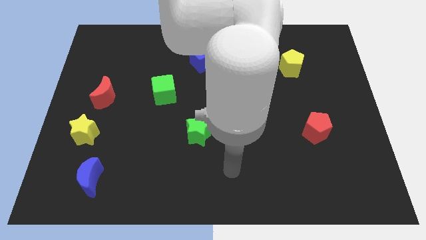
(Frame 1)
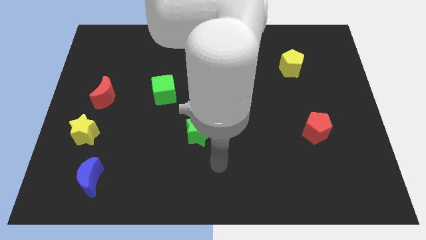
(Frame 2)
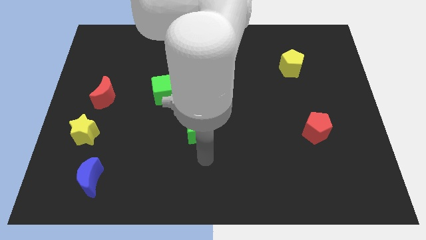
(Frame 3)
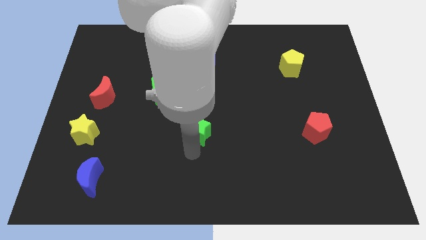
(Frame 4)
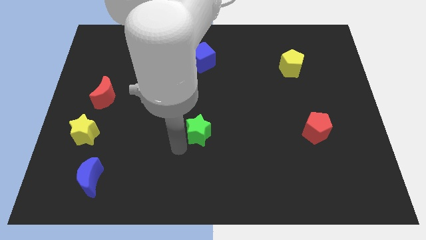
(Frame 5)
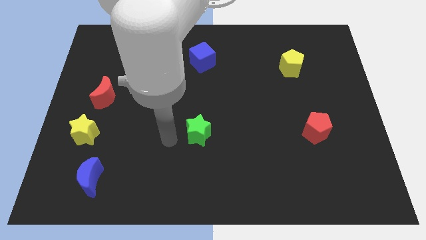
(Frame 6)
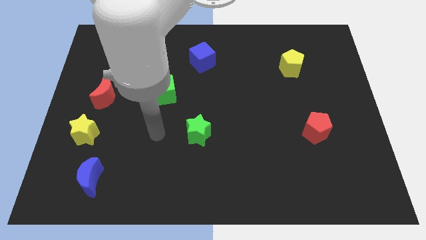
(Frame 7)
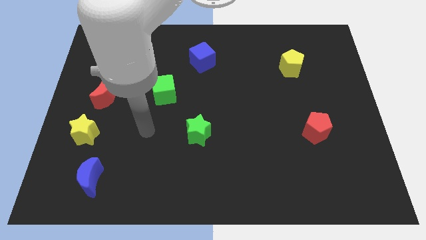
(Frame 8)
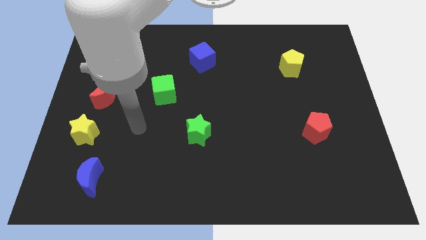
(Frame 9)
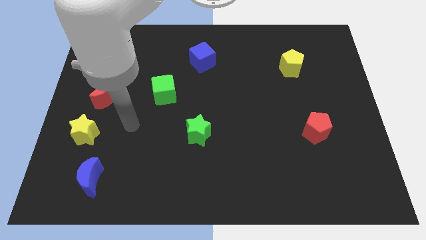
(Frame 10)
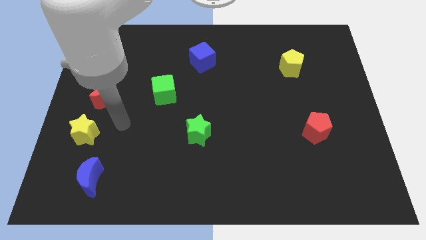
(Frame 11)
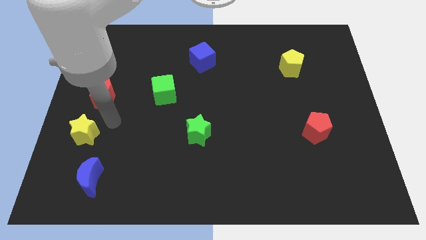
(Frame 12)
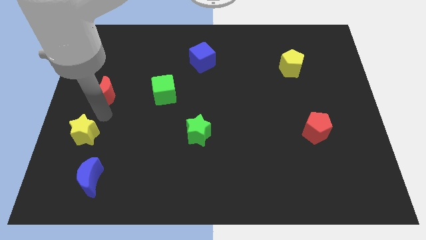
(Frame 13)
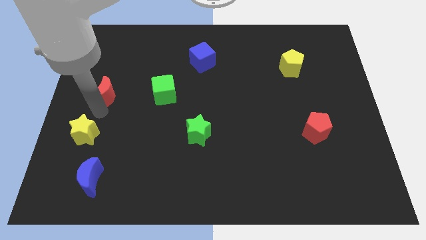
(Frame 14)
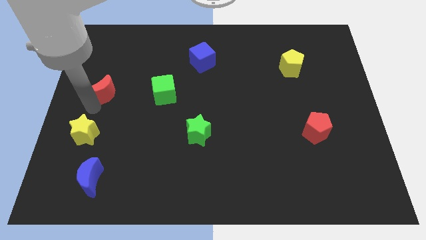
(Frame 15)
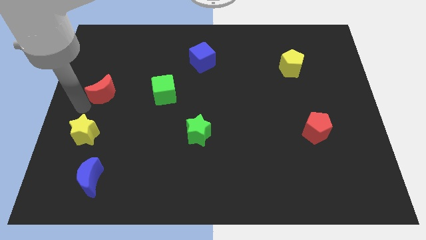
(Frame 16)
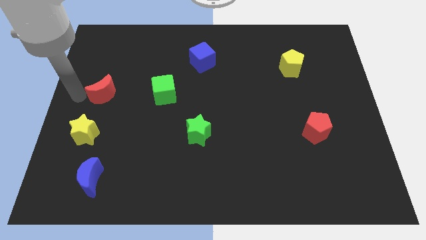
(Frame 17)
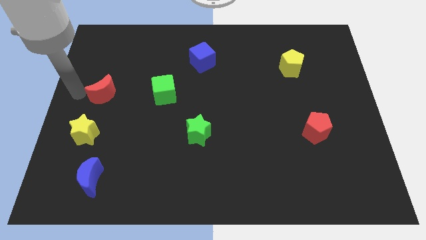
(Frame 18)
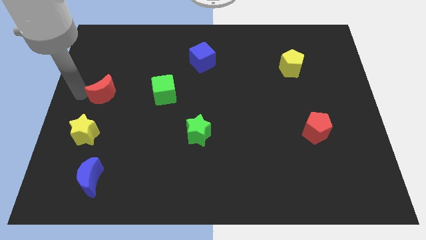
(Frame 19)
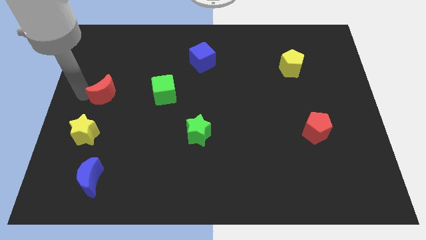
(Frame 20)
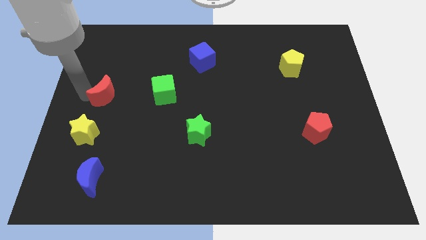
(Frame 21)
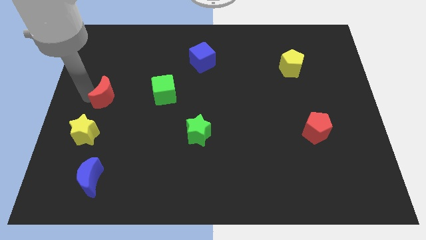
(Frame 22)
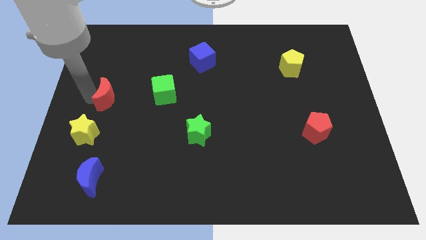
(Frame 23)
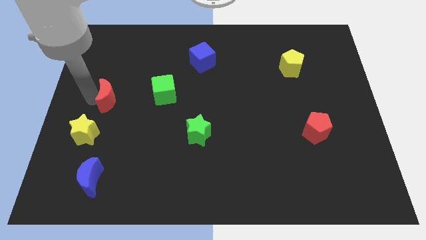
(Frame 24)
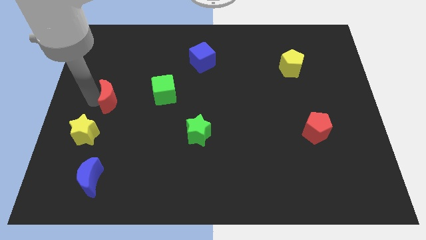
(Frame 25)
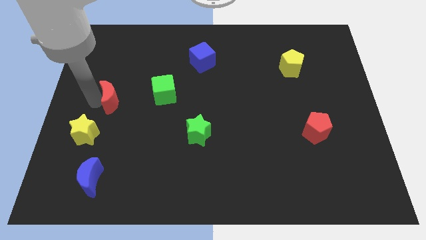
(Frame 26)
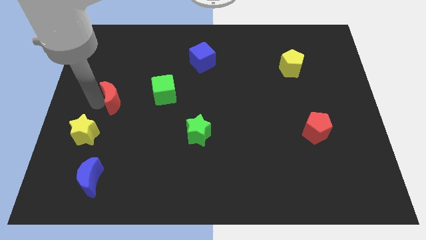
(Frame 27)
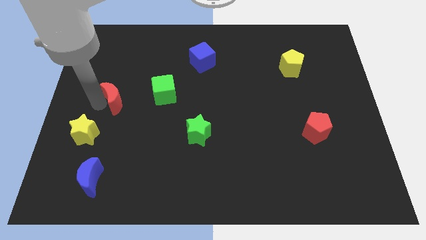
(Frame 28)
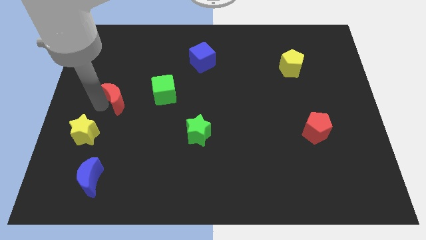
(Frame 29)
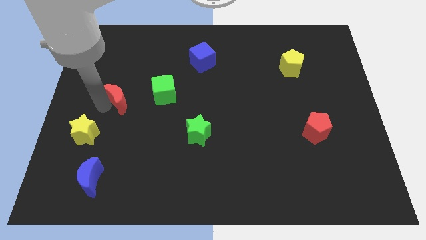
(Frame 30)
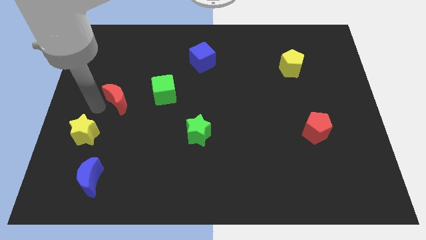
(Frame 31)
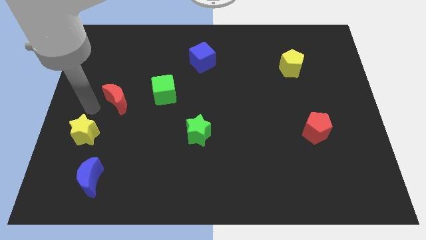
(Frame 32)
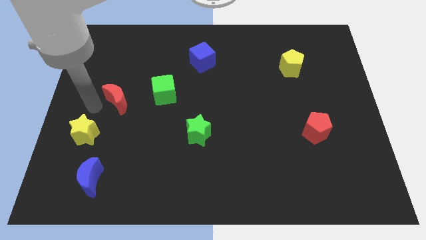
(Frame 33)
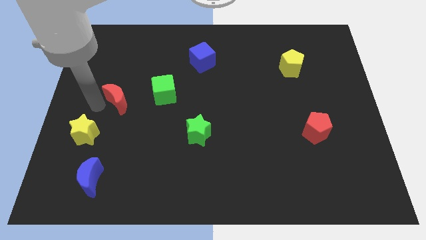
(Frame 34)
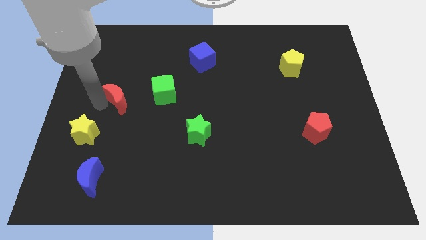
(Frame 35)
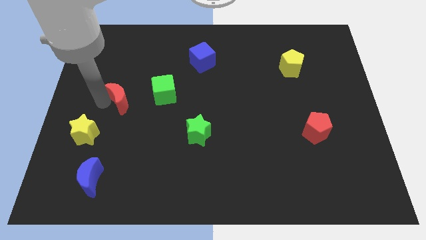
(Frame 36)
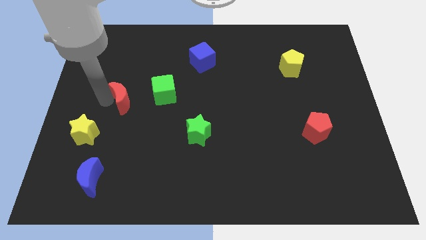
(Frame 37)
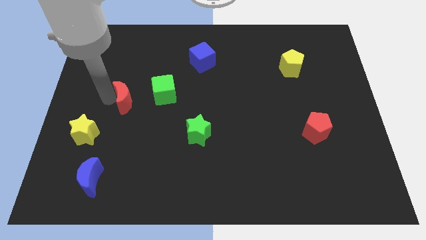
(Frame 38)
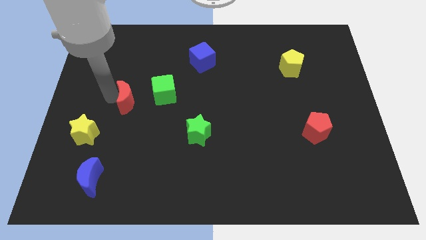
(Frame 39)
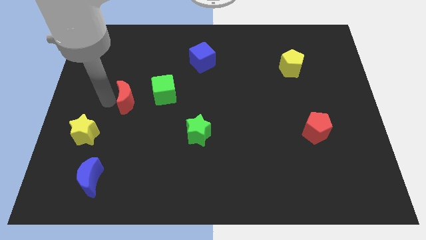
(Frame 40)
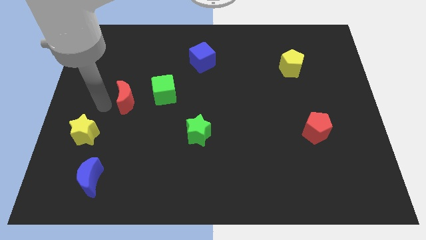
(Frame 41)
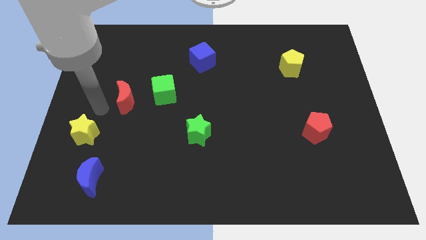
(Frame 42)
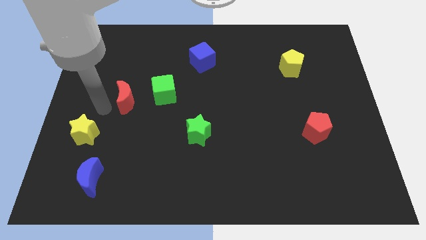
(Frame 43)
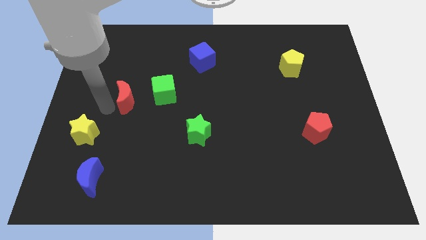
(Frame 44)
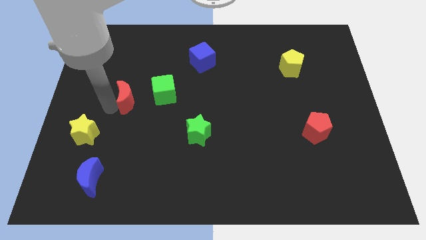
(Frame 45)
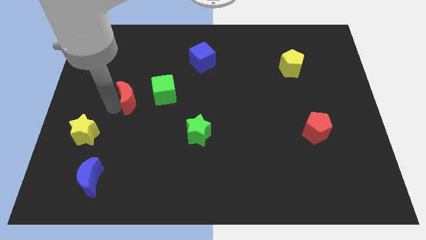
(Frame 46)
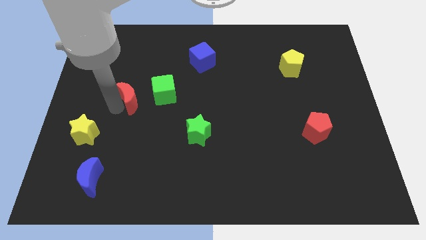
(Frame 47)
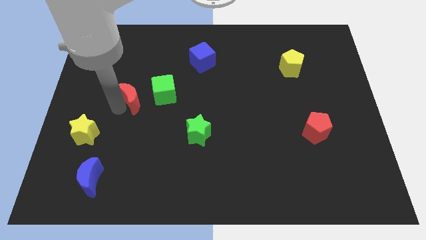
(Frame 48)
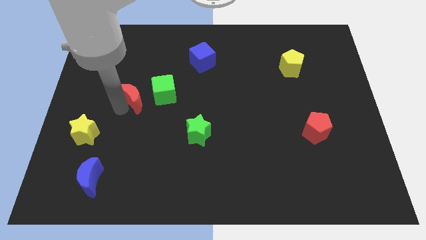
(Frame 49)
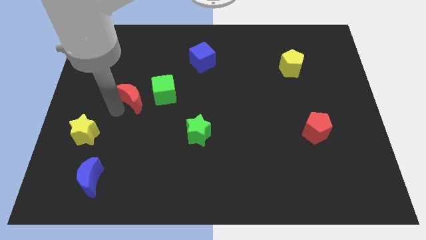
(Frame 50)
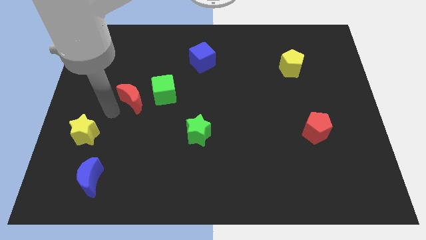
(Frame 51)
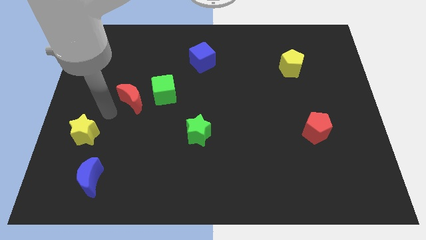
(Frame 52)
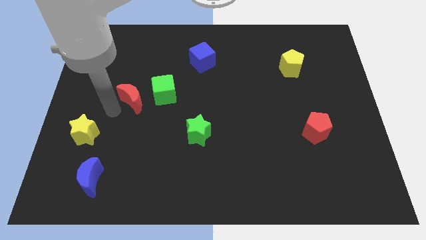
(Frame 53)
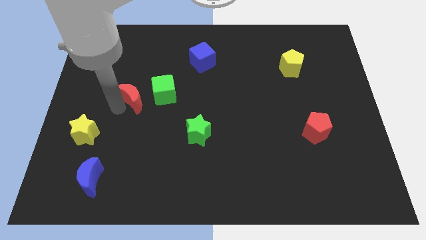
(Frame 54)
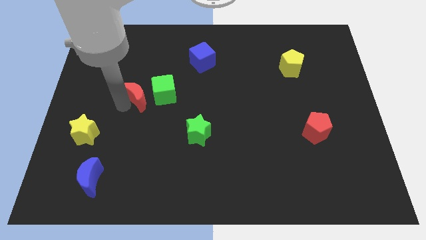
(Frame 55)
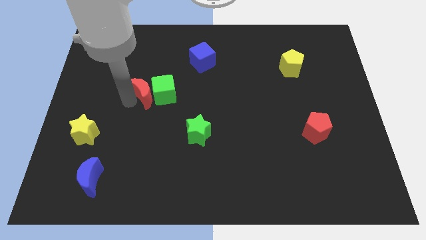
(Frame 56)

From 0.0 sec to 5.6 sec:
move the red moon close to the green cube

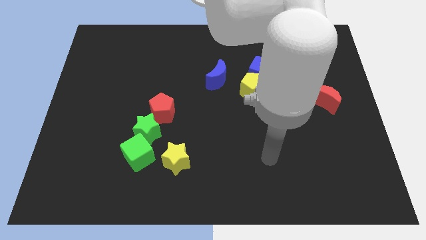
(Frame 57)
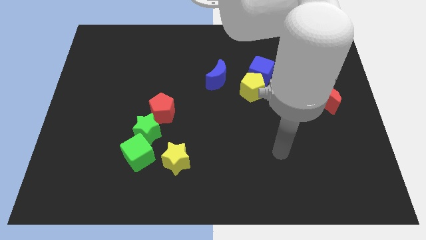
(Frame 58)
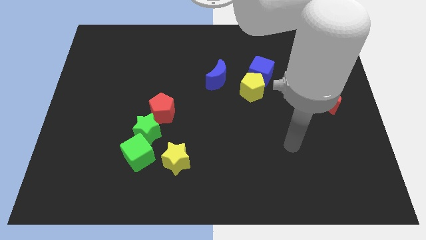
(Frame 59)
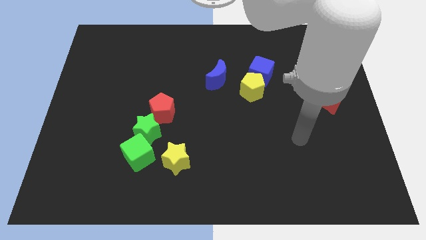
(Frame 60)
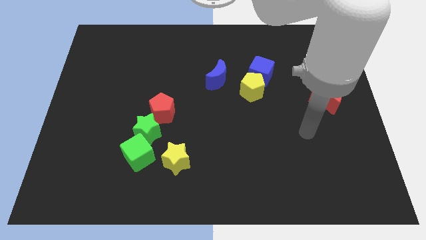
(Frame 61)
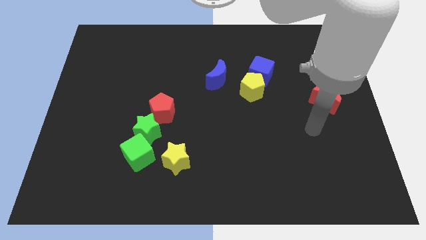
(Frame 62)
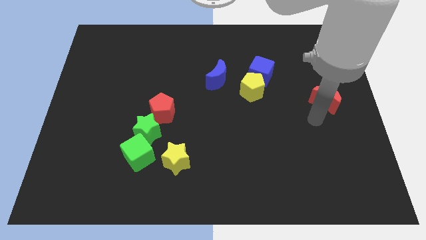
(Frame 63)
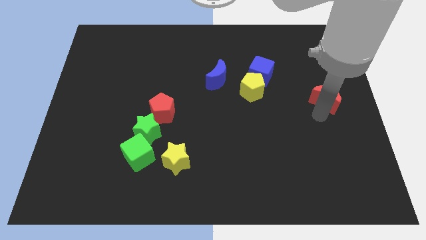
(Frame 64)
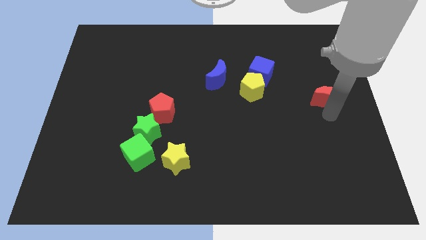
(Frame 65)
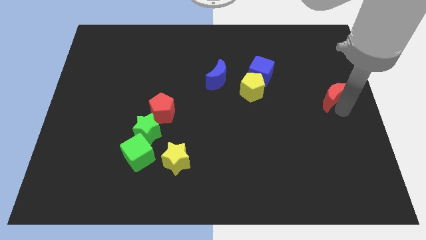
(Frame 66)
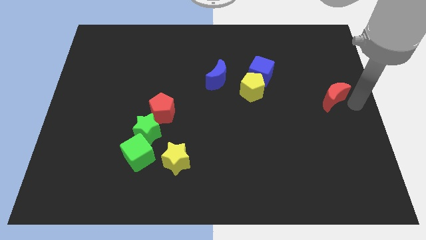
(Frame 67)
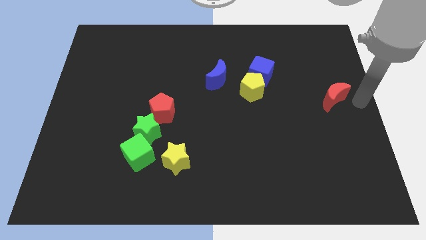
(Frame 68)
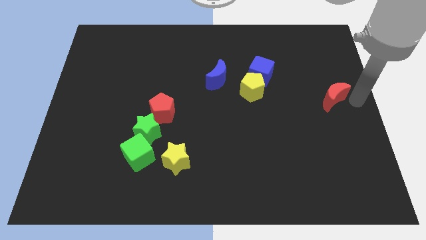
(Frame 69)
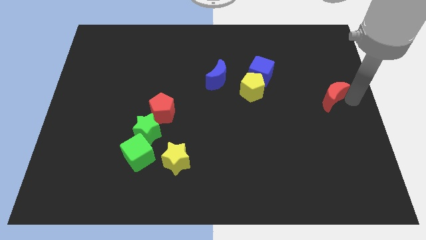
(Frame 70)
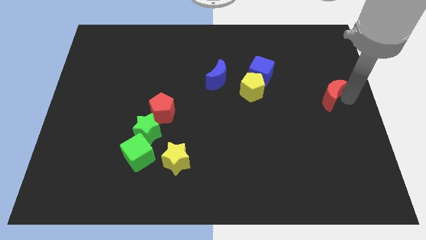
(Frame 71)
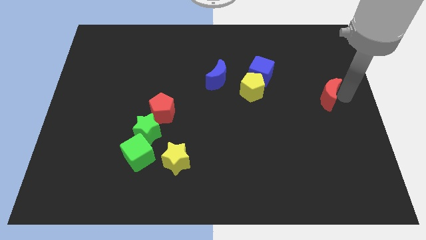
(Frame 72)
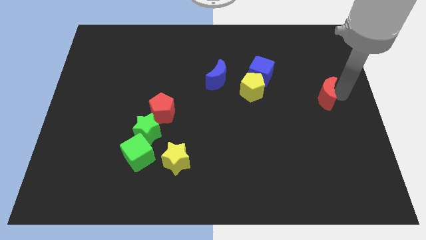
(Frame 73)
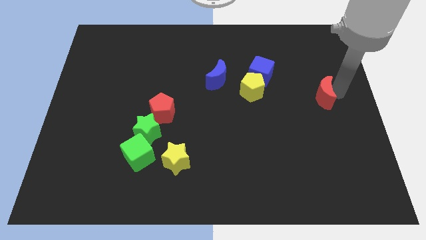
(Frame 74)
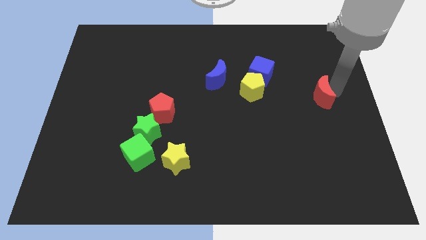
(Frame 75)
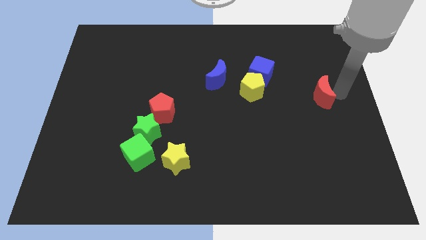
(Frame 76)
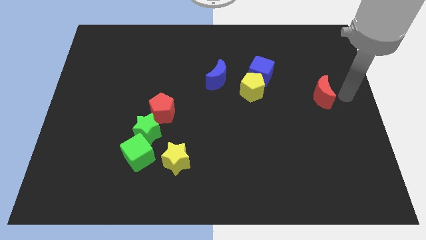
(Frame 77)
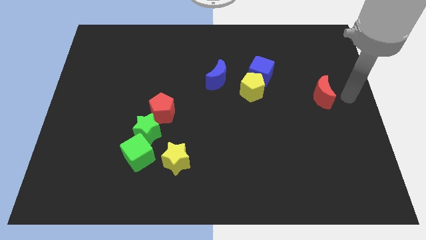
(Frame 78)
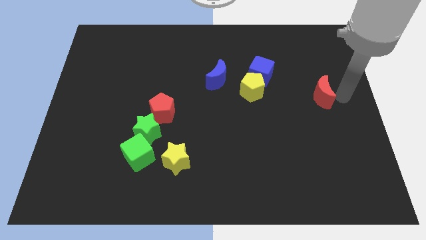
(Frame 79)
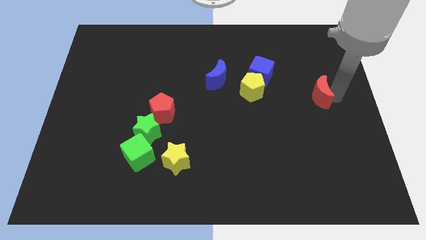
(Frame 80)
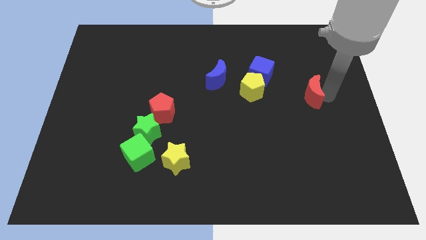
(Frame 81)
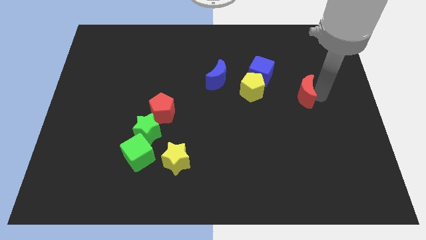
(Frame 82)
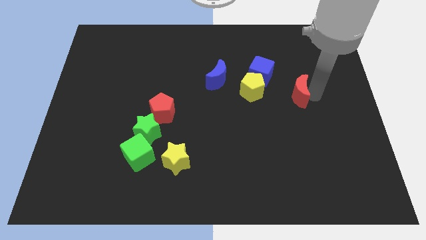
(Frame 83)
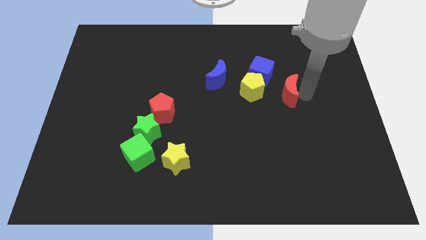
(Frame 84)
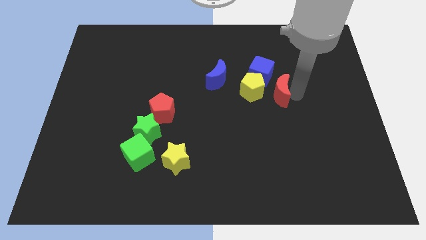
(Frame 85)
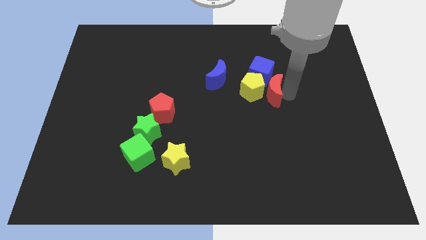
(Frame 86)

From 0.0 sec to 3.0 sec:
push the red moon close to the yellow pentagon
